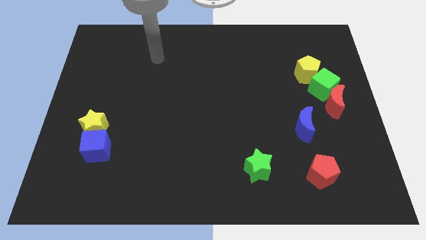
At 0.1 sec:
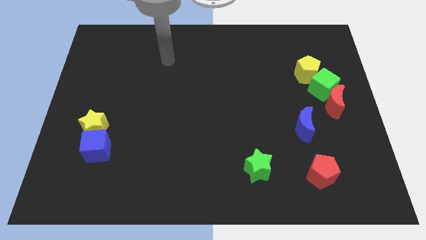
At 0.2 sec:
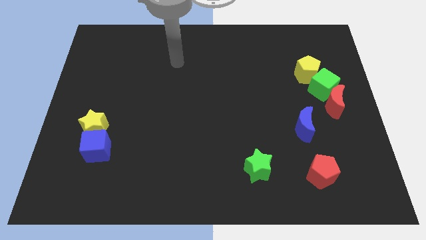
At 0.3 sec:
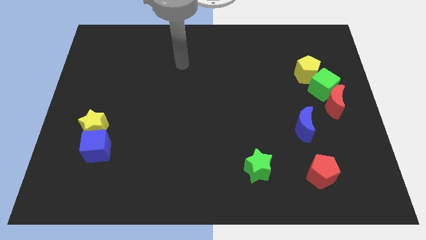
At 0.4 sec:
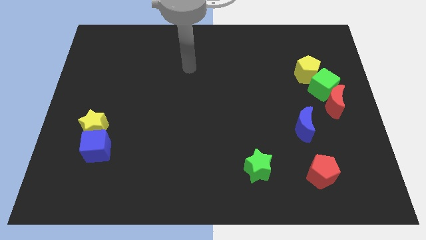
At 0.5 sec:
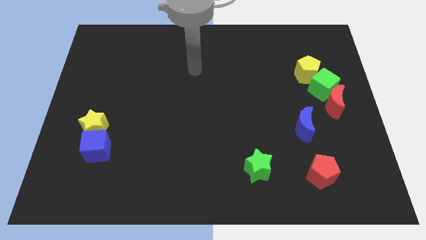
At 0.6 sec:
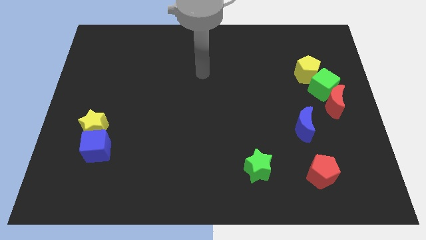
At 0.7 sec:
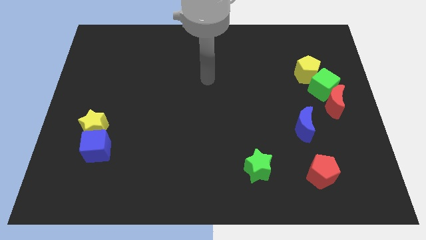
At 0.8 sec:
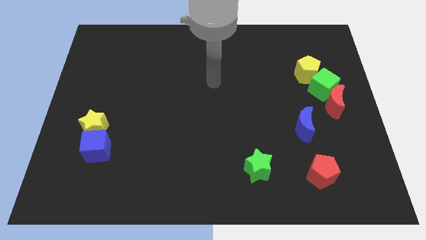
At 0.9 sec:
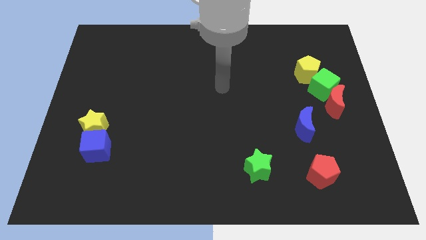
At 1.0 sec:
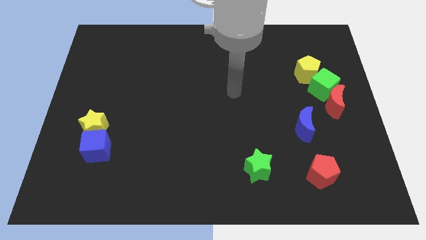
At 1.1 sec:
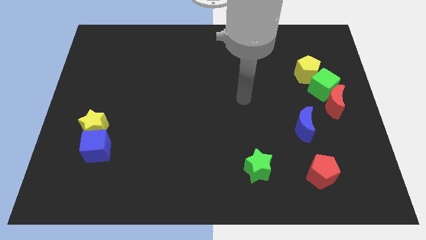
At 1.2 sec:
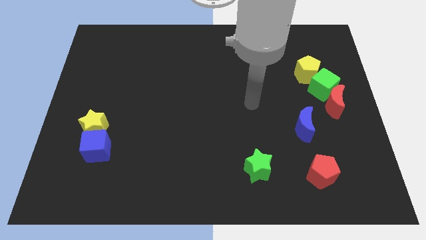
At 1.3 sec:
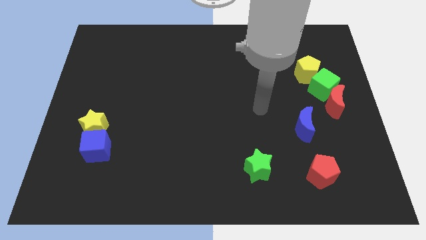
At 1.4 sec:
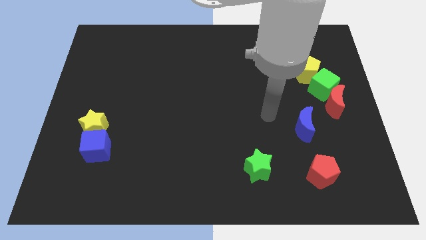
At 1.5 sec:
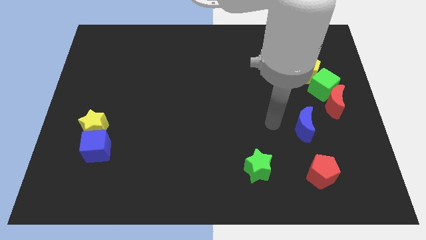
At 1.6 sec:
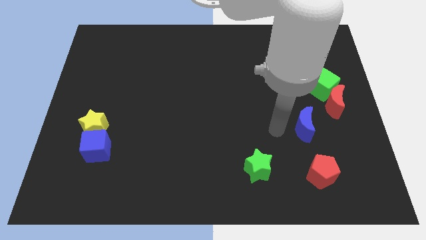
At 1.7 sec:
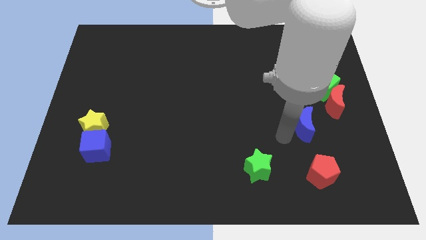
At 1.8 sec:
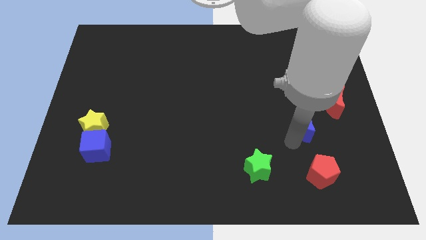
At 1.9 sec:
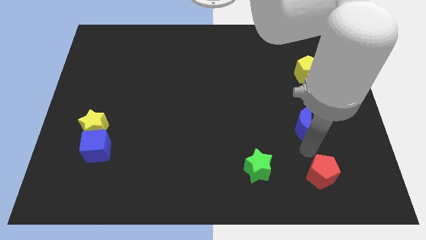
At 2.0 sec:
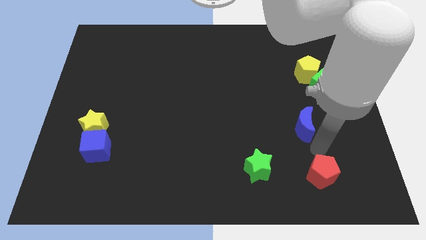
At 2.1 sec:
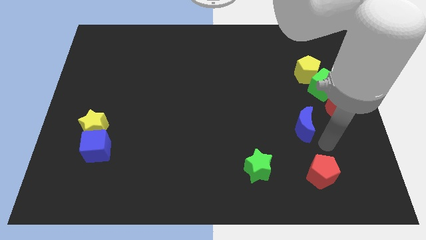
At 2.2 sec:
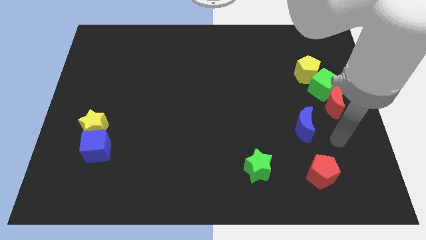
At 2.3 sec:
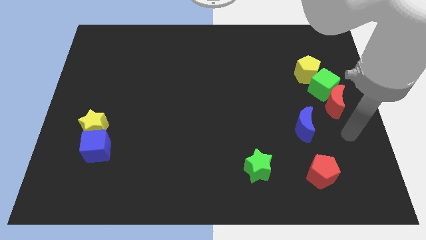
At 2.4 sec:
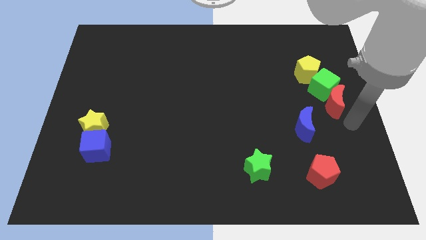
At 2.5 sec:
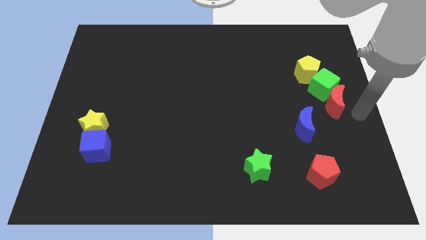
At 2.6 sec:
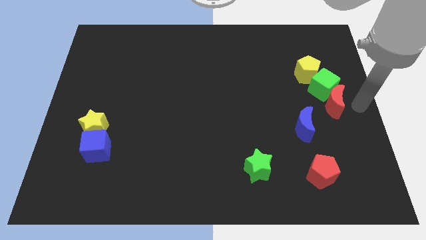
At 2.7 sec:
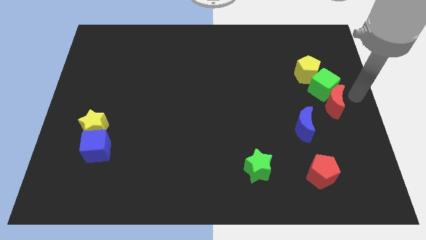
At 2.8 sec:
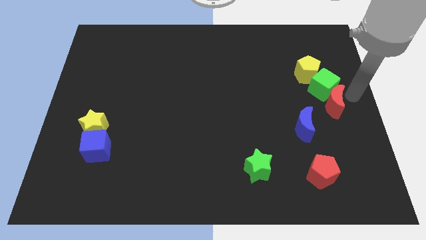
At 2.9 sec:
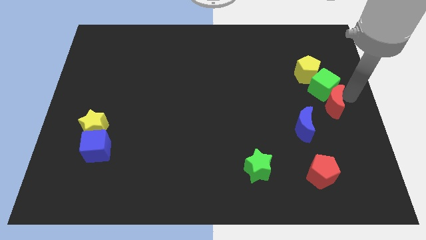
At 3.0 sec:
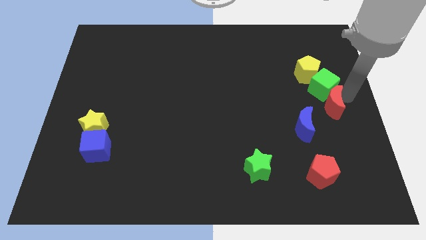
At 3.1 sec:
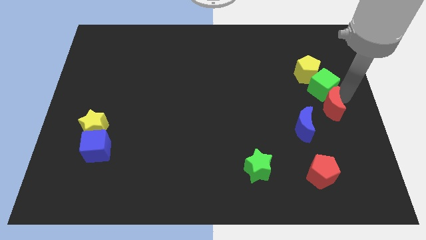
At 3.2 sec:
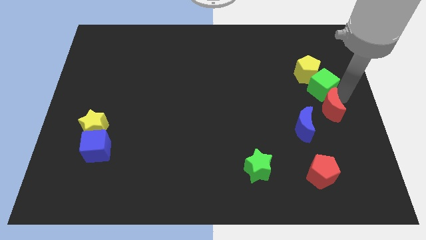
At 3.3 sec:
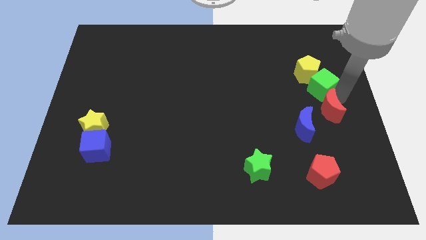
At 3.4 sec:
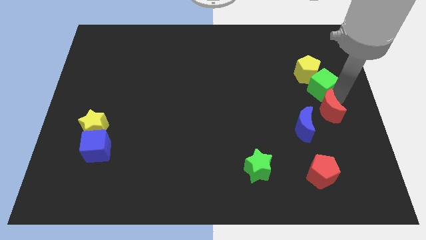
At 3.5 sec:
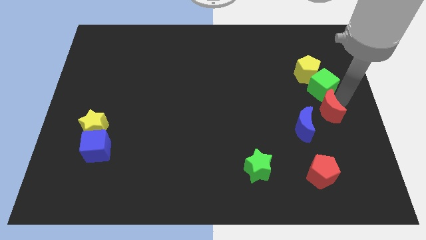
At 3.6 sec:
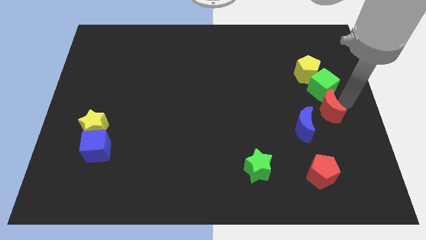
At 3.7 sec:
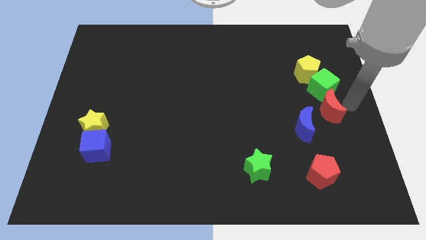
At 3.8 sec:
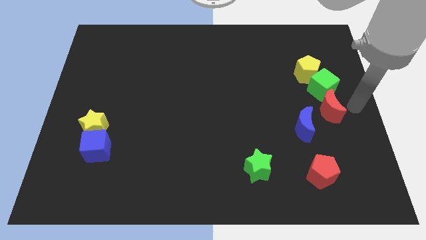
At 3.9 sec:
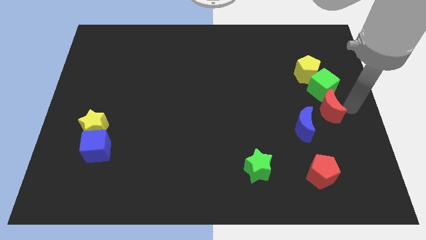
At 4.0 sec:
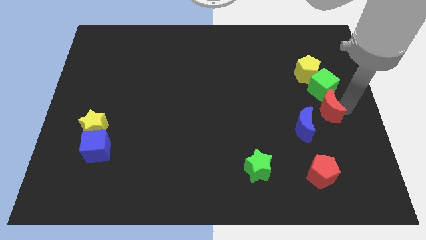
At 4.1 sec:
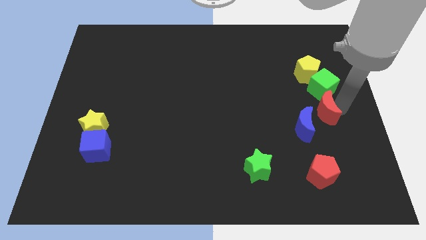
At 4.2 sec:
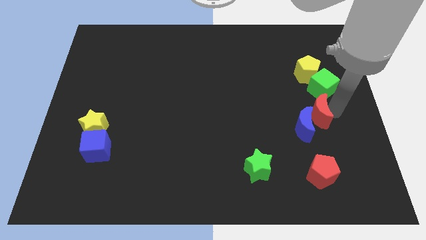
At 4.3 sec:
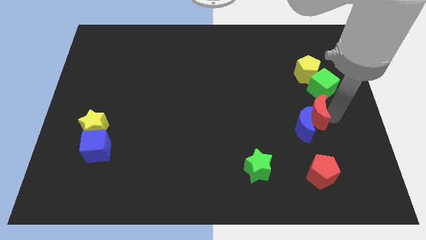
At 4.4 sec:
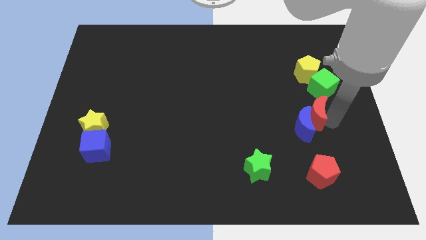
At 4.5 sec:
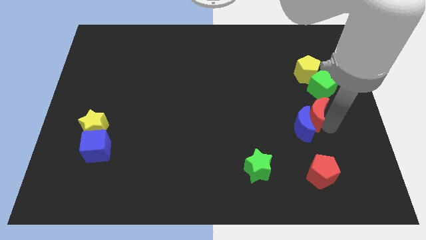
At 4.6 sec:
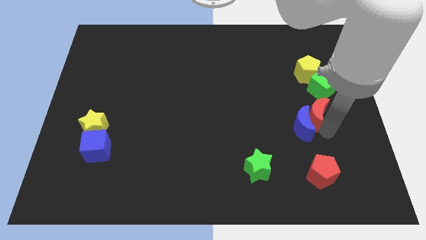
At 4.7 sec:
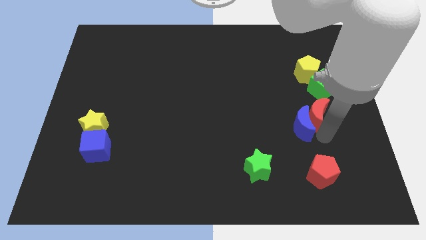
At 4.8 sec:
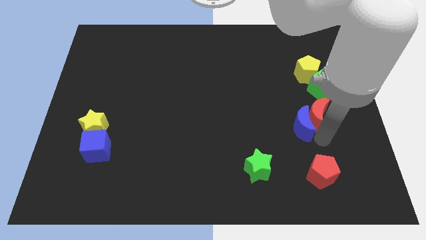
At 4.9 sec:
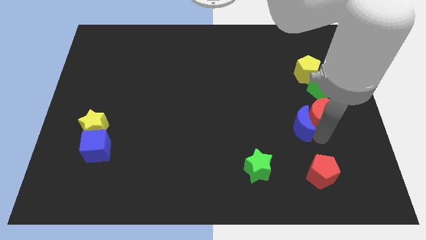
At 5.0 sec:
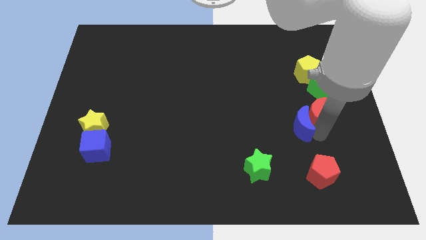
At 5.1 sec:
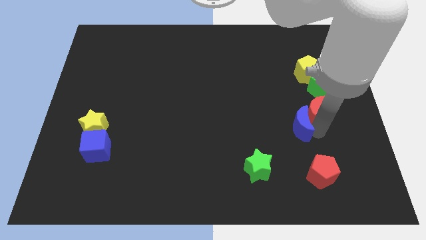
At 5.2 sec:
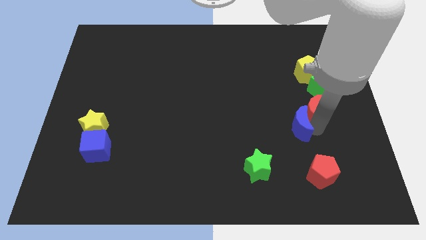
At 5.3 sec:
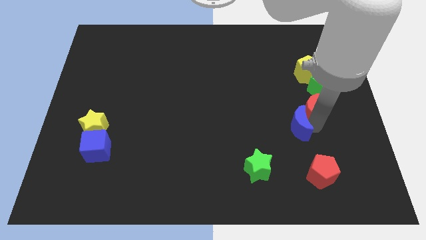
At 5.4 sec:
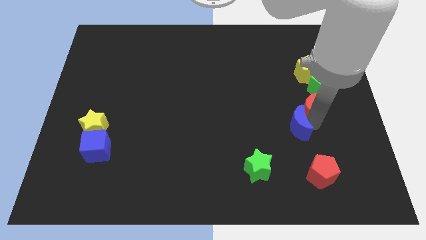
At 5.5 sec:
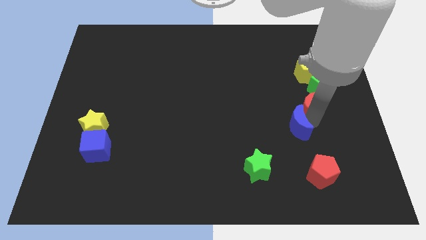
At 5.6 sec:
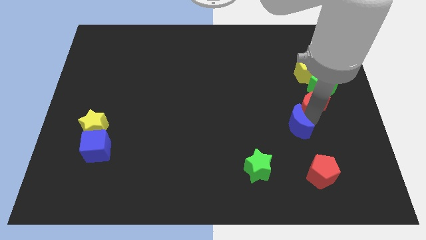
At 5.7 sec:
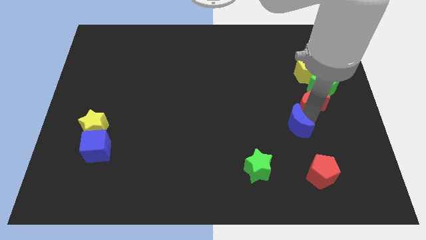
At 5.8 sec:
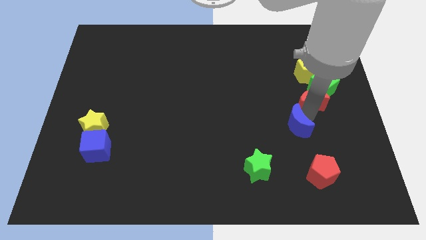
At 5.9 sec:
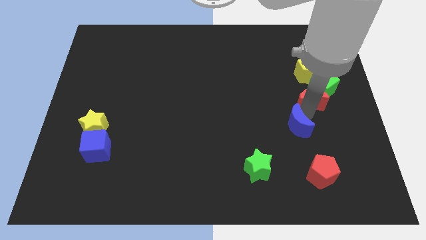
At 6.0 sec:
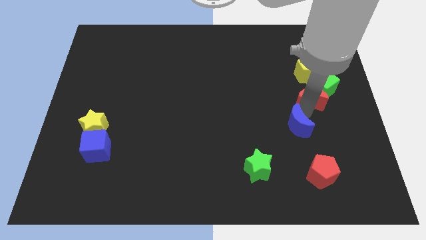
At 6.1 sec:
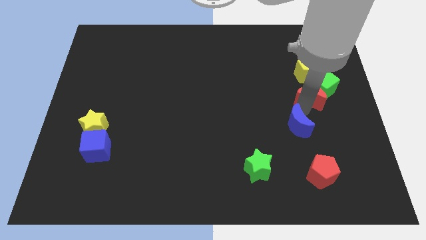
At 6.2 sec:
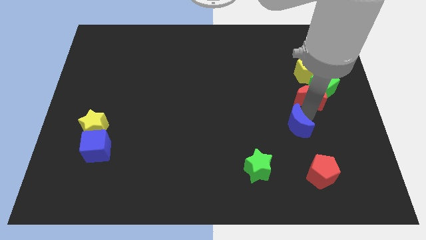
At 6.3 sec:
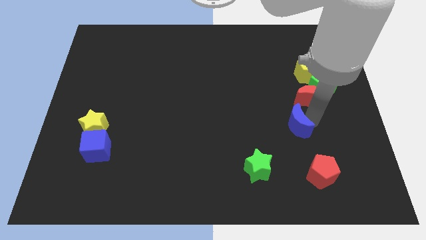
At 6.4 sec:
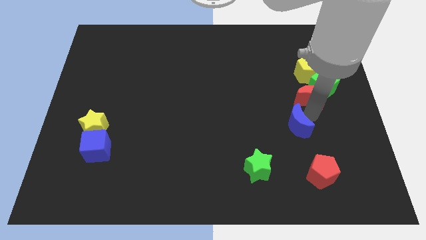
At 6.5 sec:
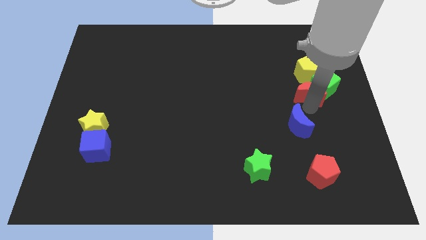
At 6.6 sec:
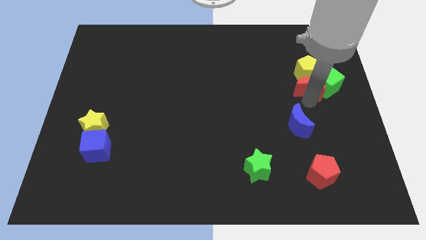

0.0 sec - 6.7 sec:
push the red moon to the yellow pentagon

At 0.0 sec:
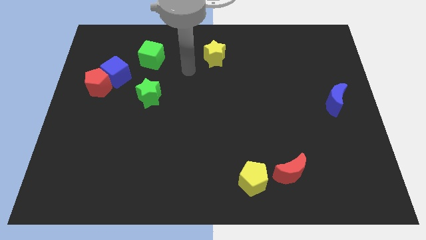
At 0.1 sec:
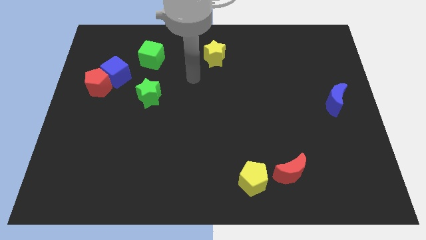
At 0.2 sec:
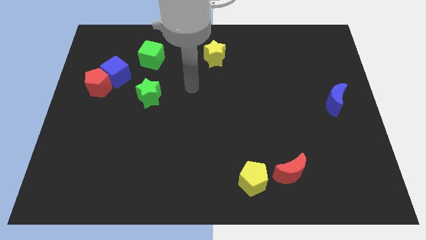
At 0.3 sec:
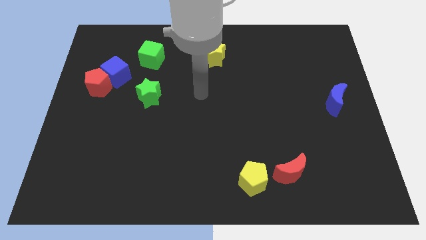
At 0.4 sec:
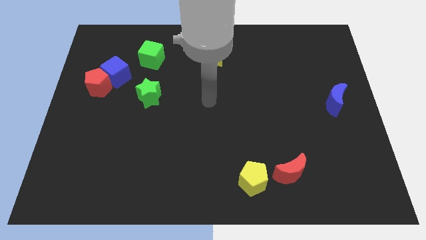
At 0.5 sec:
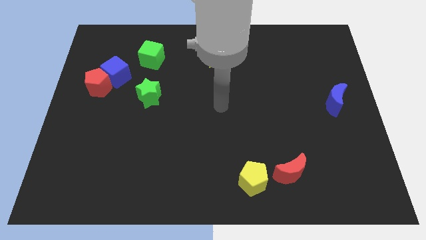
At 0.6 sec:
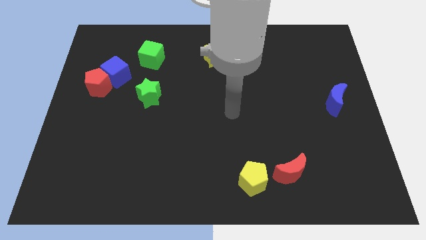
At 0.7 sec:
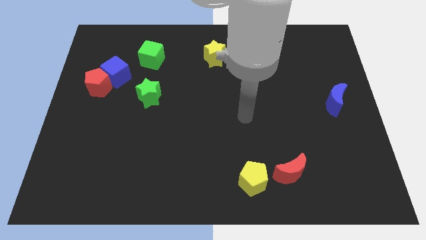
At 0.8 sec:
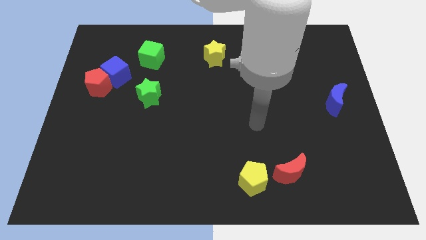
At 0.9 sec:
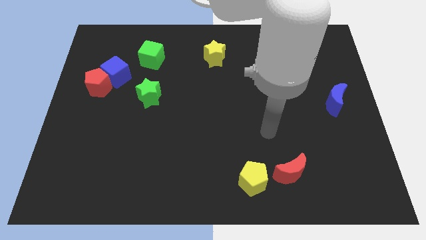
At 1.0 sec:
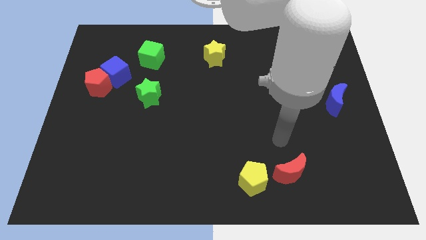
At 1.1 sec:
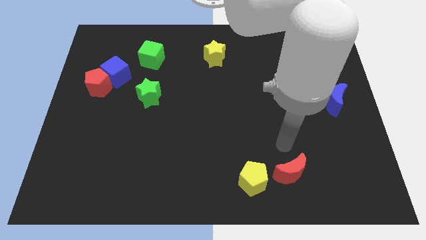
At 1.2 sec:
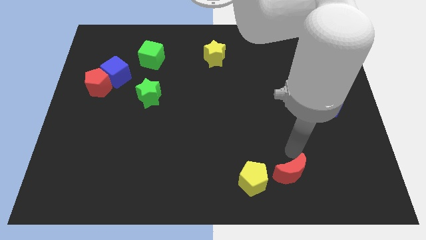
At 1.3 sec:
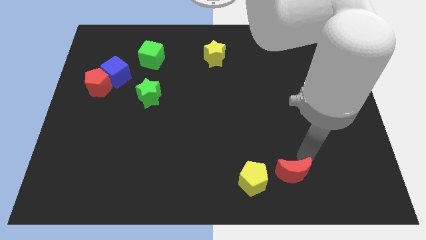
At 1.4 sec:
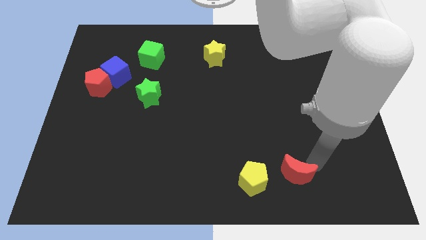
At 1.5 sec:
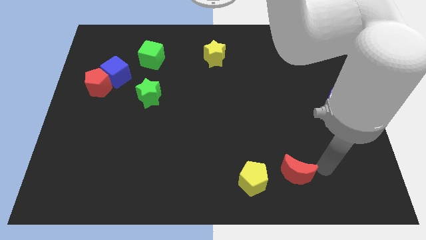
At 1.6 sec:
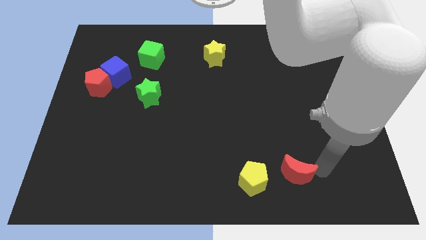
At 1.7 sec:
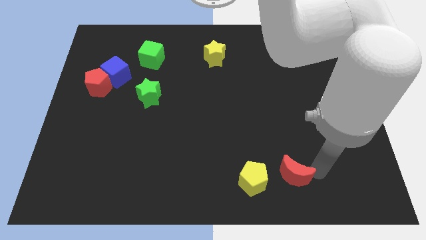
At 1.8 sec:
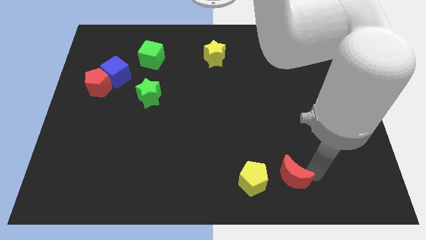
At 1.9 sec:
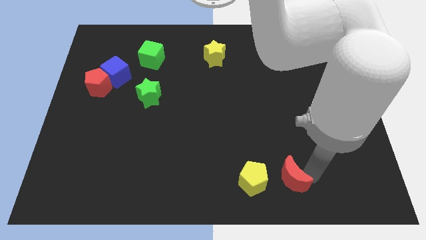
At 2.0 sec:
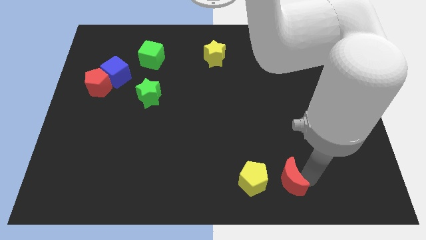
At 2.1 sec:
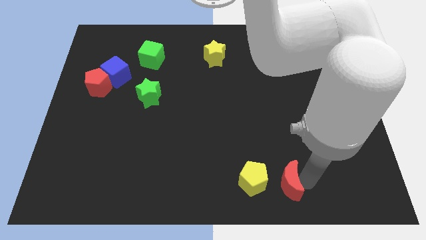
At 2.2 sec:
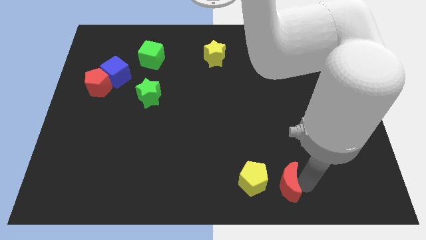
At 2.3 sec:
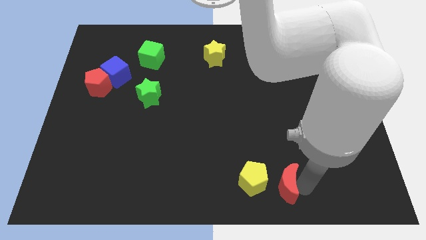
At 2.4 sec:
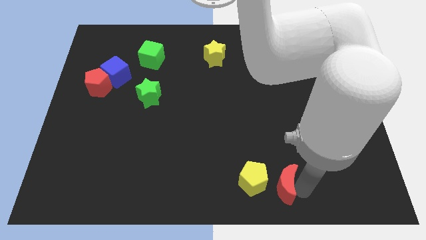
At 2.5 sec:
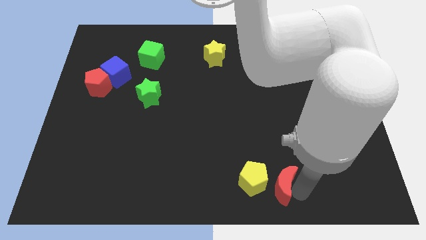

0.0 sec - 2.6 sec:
push the red moon towards the yellow pentagon
